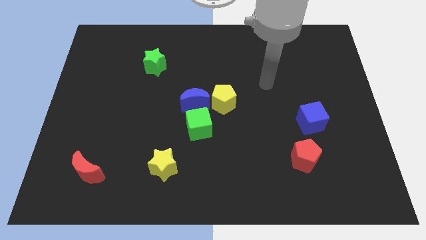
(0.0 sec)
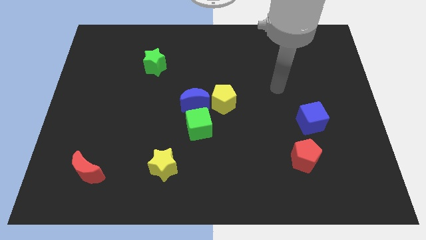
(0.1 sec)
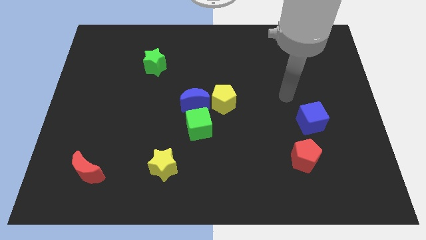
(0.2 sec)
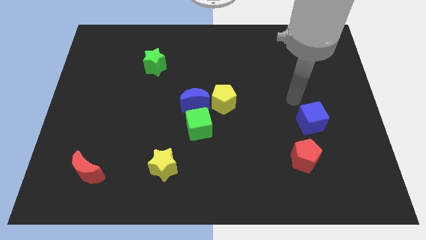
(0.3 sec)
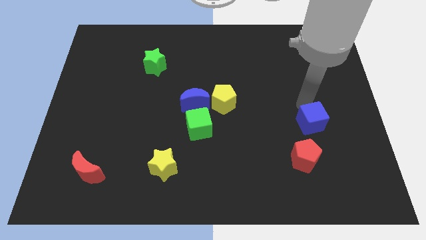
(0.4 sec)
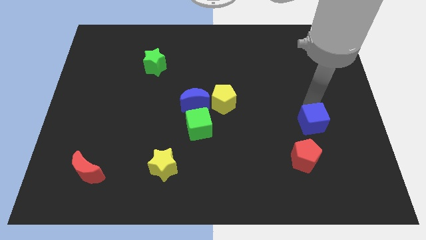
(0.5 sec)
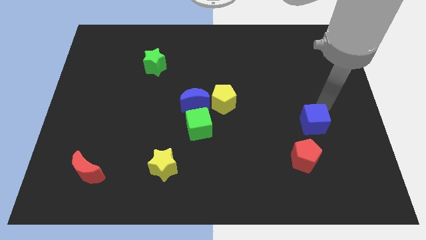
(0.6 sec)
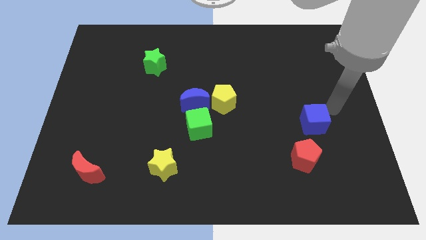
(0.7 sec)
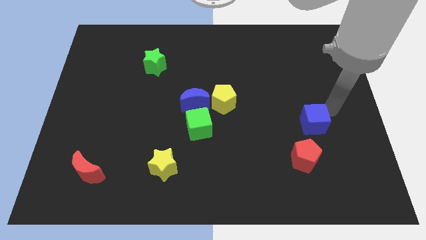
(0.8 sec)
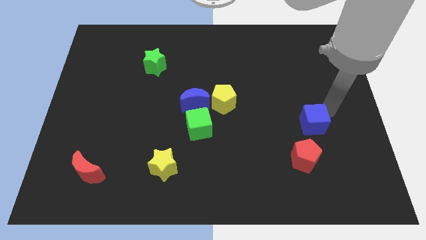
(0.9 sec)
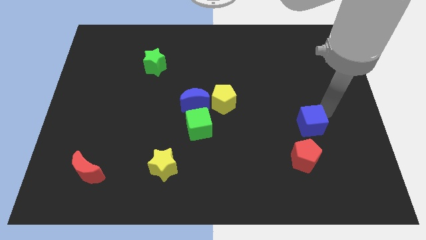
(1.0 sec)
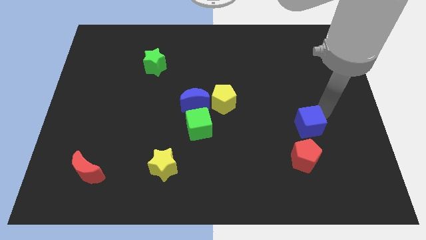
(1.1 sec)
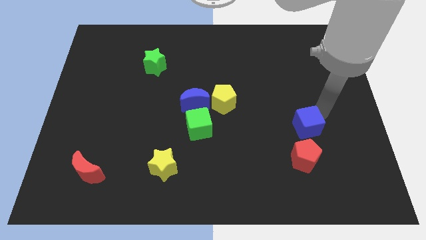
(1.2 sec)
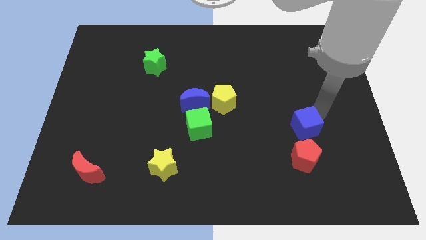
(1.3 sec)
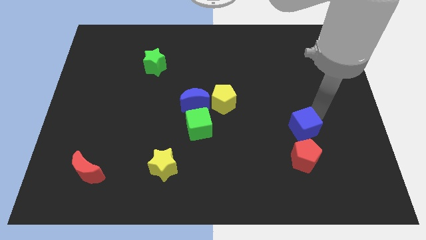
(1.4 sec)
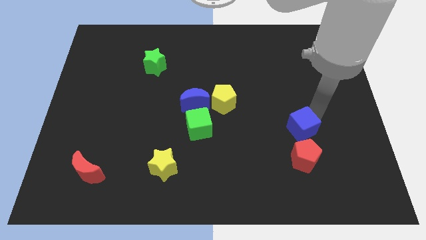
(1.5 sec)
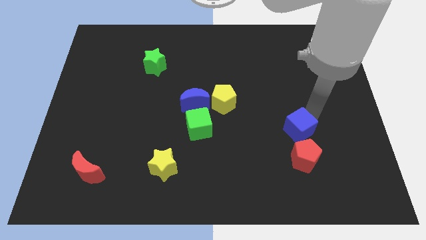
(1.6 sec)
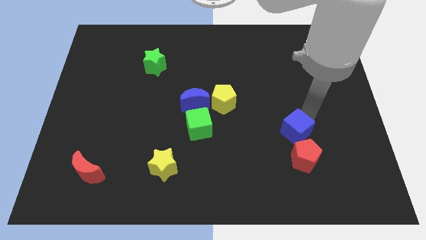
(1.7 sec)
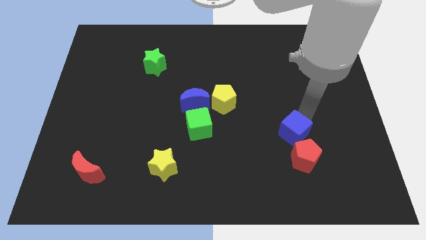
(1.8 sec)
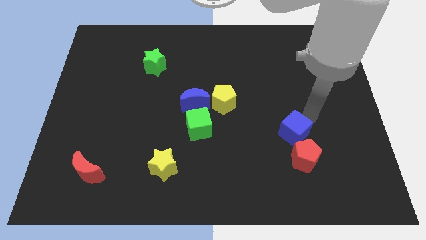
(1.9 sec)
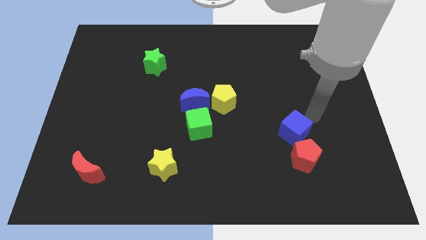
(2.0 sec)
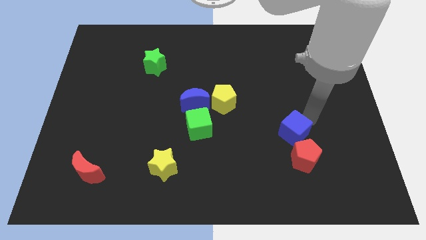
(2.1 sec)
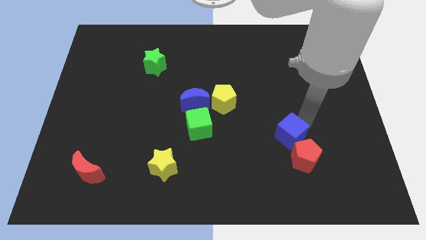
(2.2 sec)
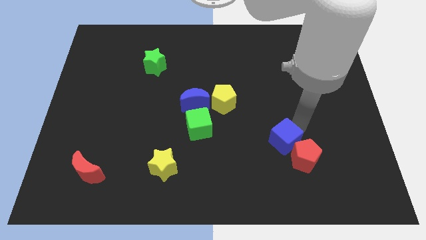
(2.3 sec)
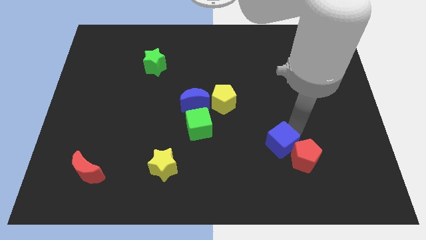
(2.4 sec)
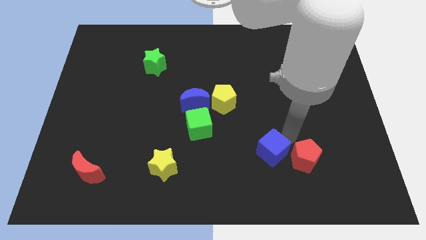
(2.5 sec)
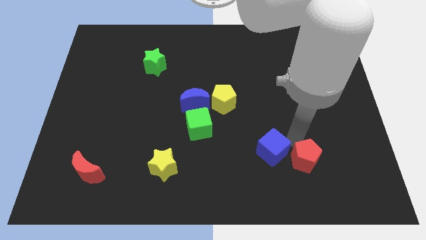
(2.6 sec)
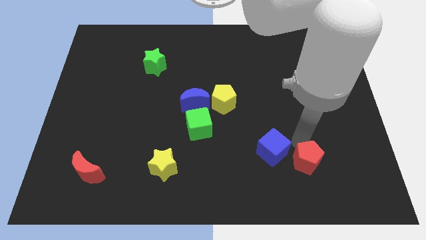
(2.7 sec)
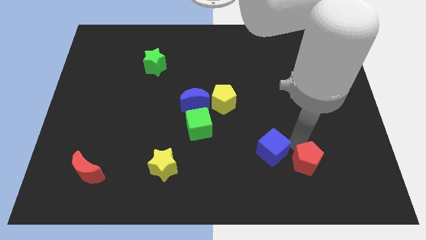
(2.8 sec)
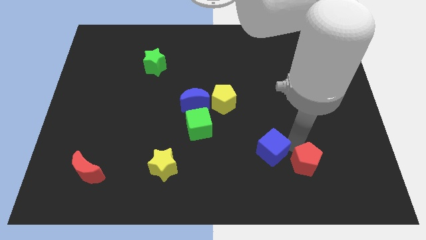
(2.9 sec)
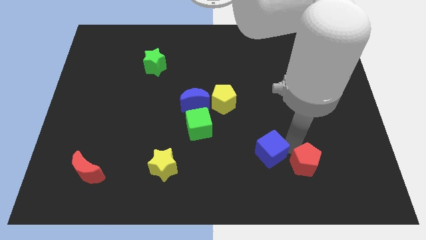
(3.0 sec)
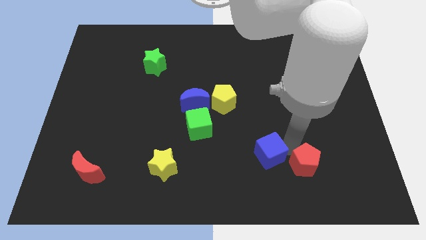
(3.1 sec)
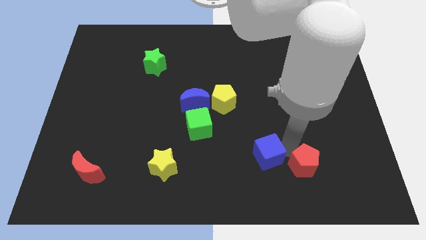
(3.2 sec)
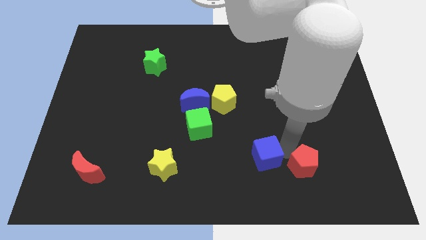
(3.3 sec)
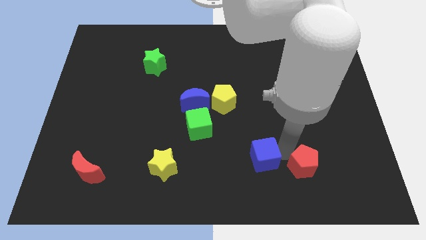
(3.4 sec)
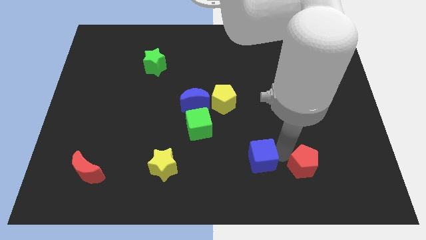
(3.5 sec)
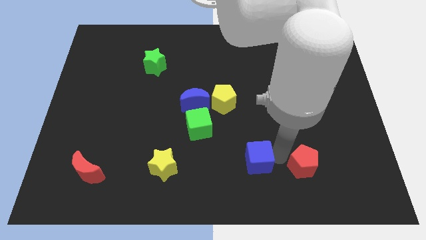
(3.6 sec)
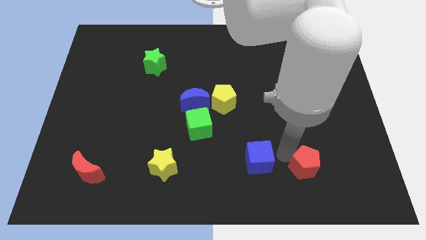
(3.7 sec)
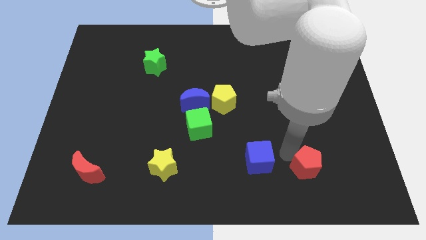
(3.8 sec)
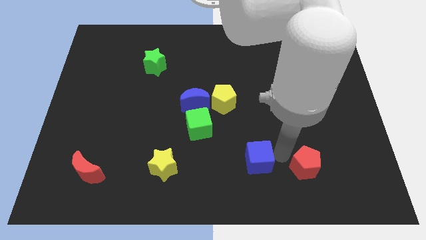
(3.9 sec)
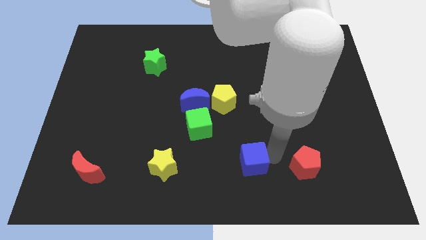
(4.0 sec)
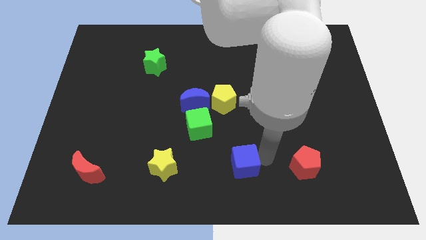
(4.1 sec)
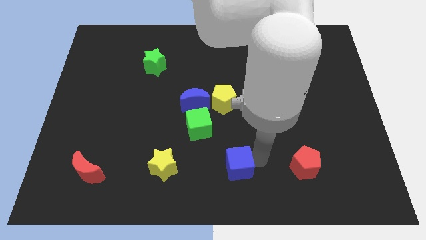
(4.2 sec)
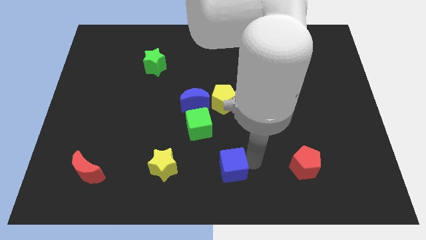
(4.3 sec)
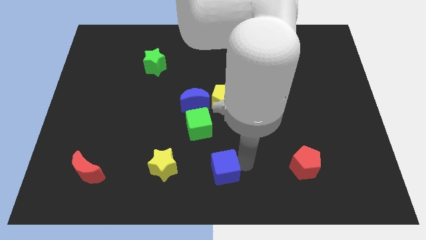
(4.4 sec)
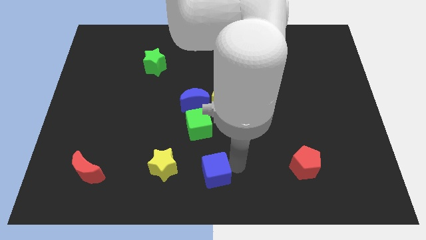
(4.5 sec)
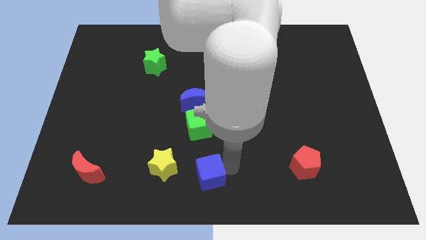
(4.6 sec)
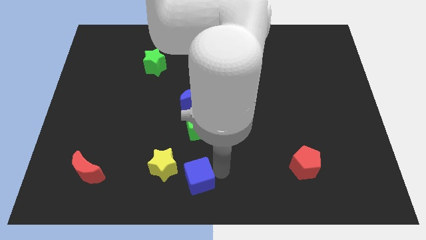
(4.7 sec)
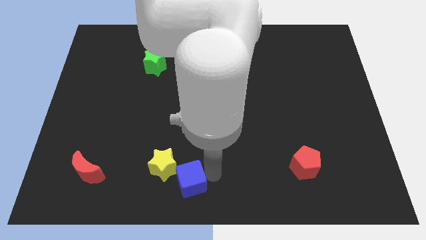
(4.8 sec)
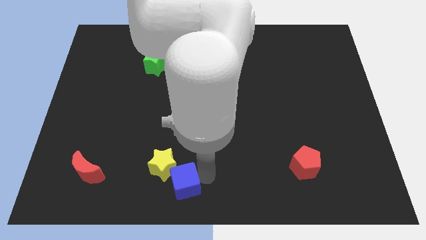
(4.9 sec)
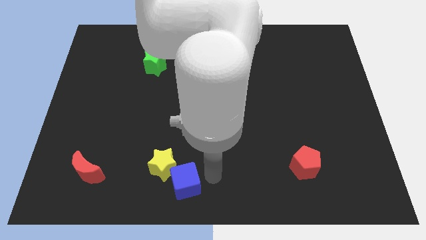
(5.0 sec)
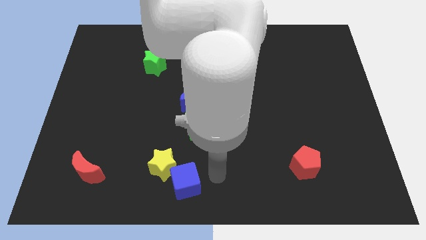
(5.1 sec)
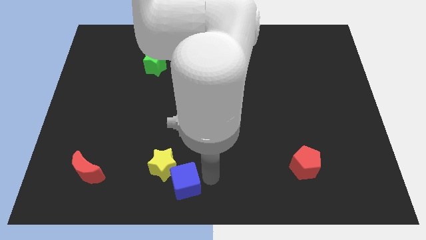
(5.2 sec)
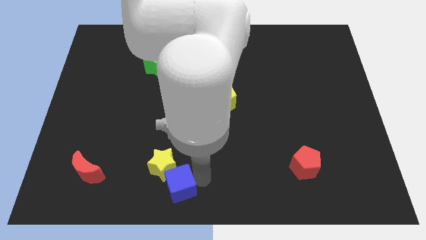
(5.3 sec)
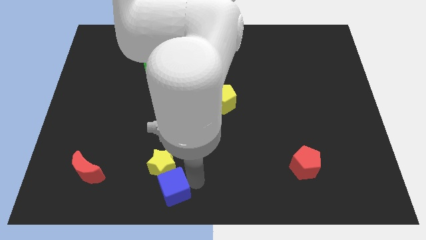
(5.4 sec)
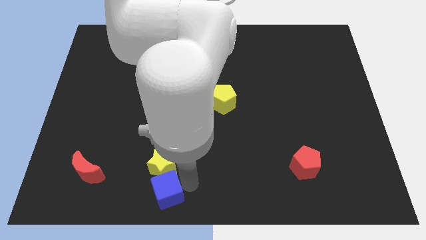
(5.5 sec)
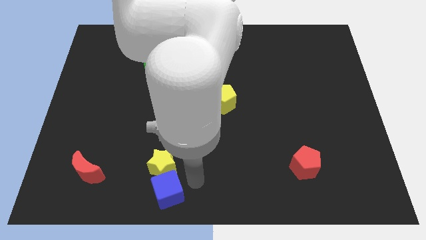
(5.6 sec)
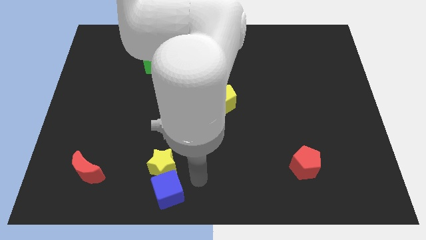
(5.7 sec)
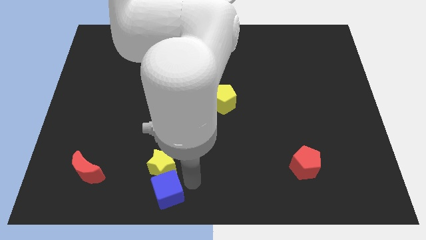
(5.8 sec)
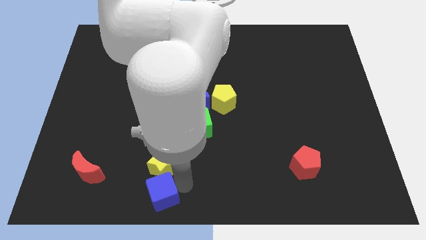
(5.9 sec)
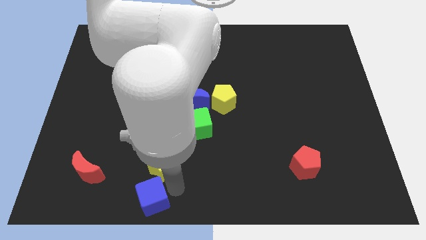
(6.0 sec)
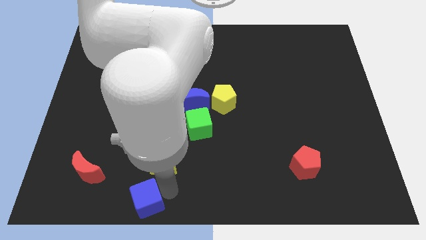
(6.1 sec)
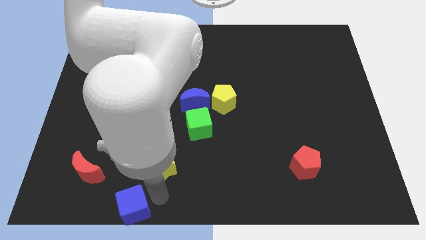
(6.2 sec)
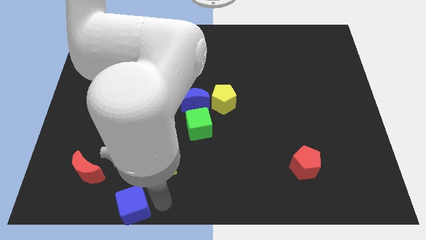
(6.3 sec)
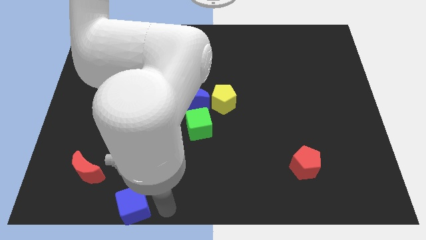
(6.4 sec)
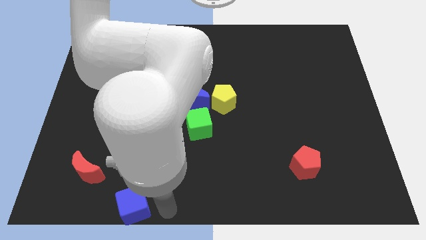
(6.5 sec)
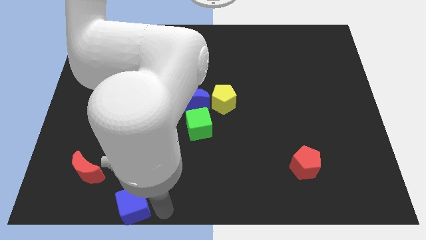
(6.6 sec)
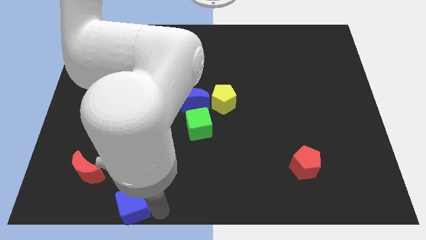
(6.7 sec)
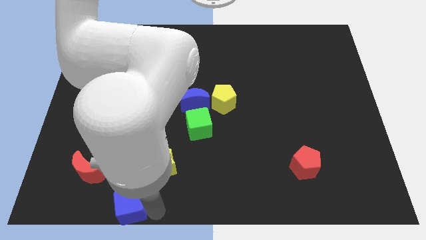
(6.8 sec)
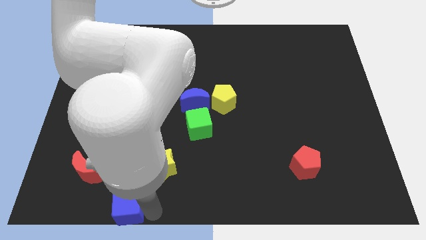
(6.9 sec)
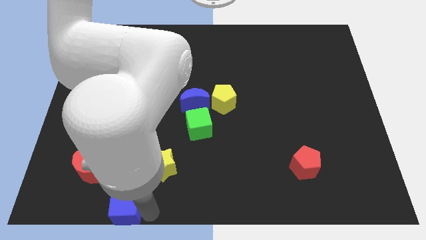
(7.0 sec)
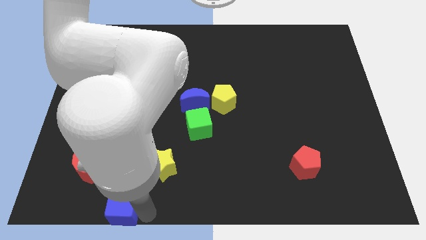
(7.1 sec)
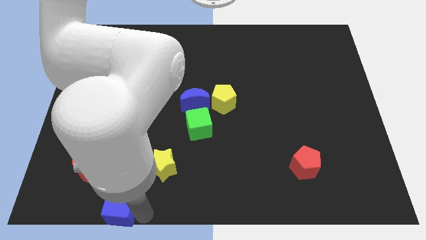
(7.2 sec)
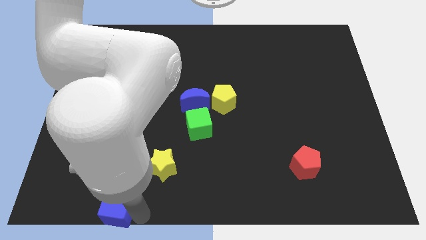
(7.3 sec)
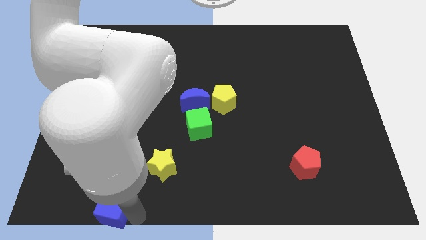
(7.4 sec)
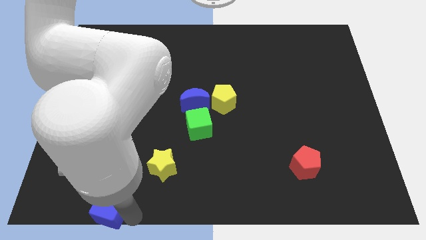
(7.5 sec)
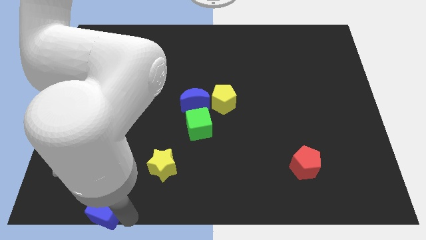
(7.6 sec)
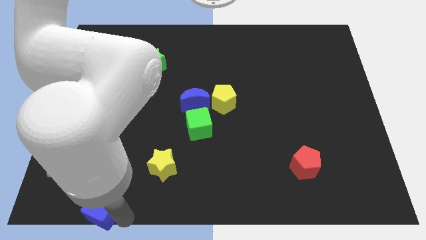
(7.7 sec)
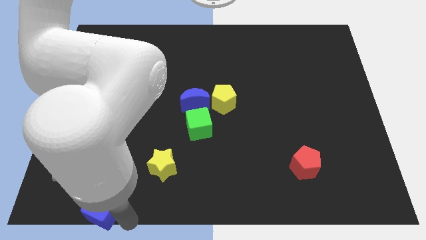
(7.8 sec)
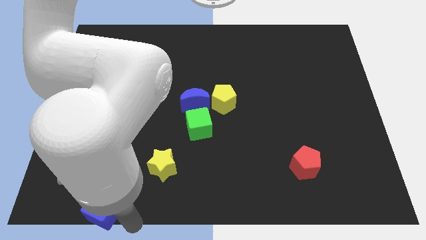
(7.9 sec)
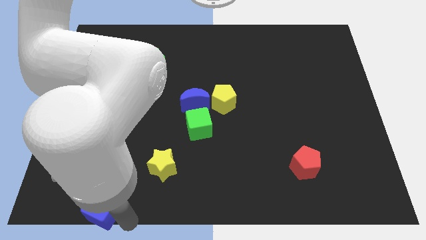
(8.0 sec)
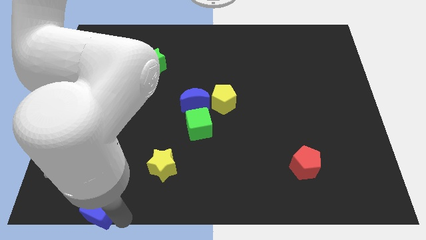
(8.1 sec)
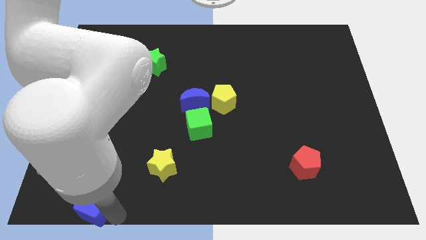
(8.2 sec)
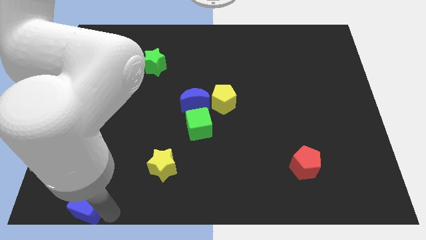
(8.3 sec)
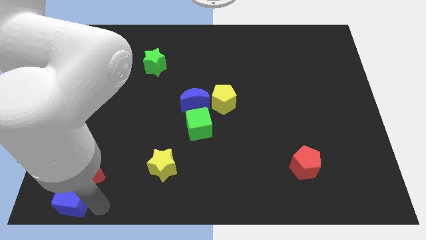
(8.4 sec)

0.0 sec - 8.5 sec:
slide the blue cube to the bottom left corner
